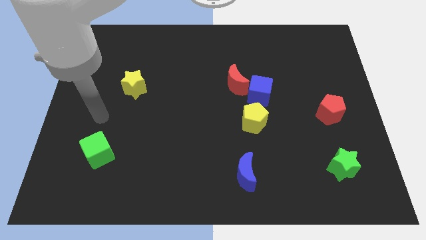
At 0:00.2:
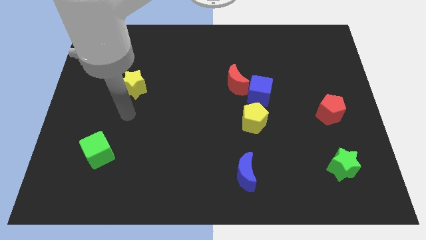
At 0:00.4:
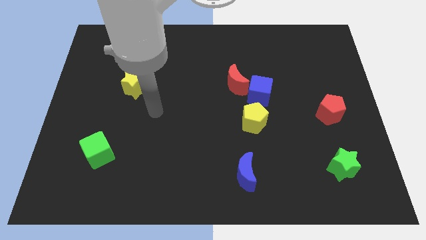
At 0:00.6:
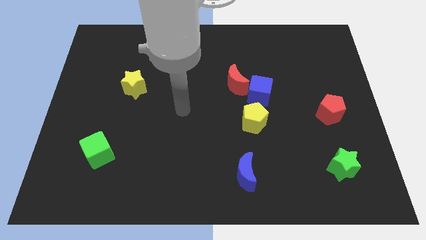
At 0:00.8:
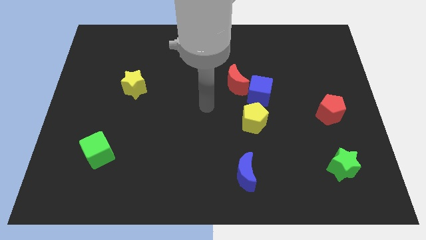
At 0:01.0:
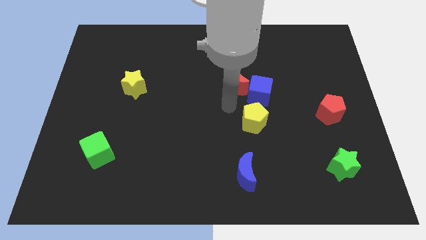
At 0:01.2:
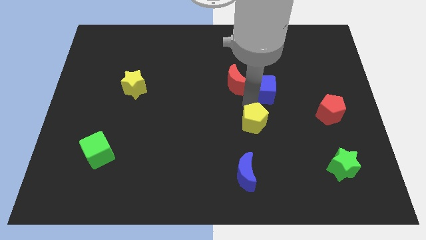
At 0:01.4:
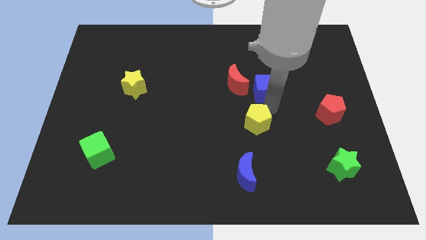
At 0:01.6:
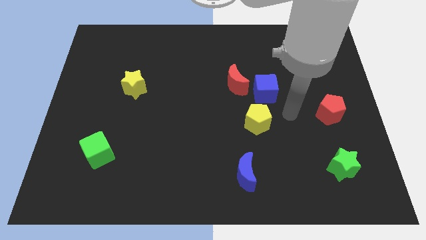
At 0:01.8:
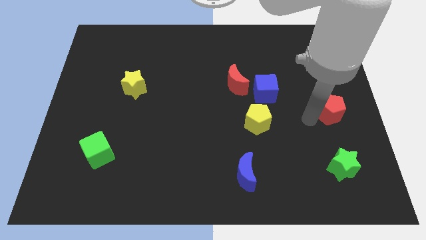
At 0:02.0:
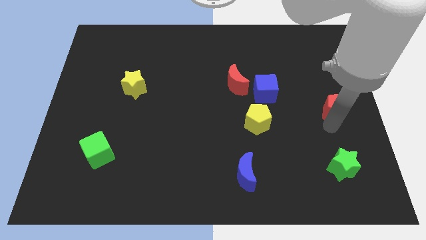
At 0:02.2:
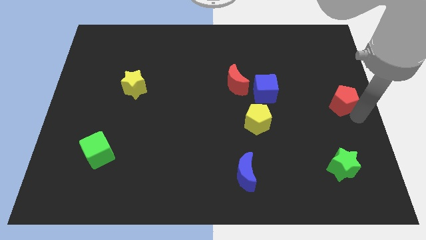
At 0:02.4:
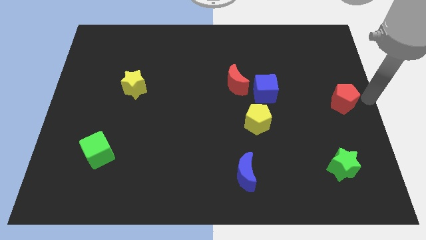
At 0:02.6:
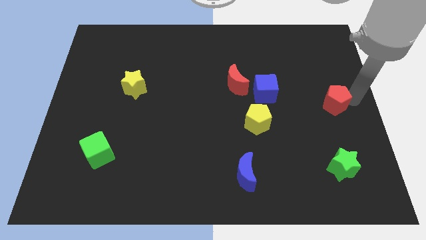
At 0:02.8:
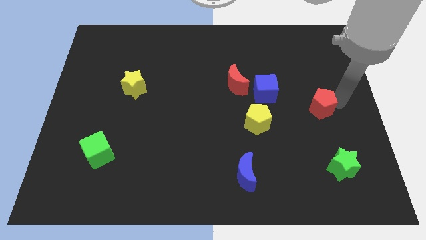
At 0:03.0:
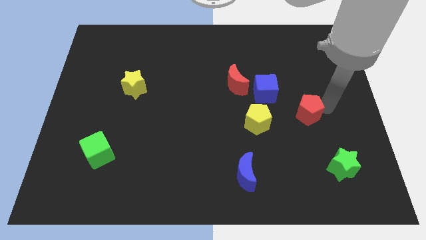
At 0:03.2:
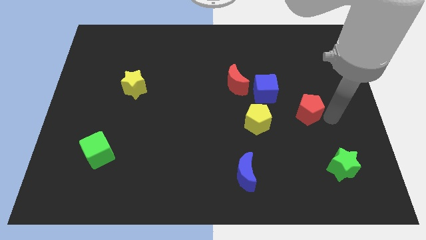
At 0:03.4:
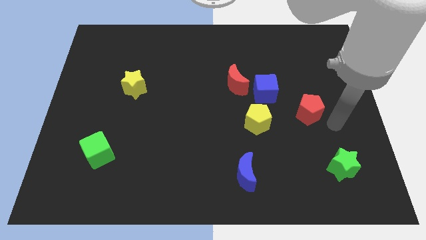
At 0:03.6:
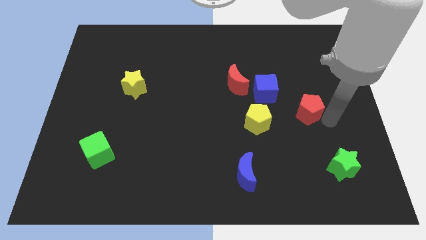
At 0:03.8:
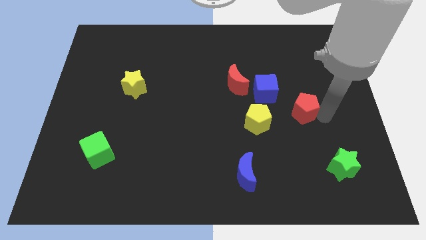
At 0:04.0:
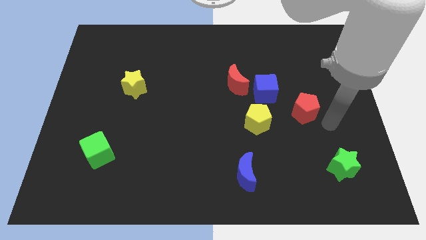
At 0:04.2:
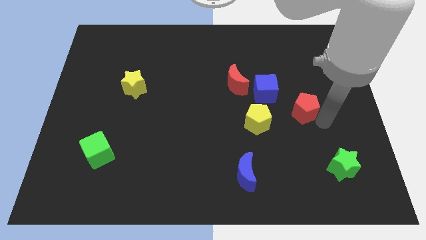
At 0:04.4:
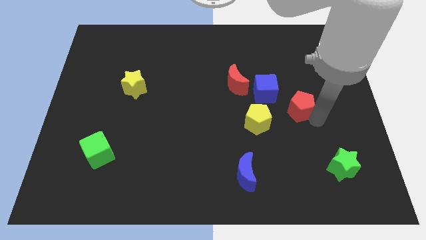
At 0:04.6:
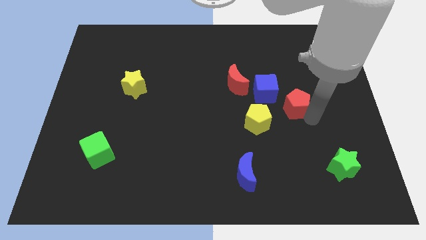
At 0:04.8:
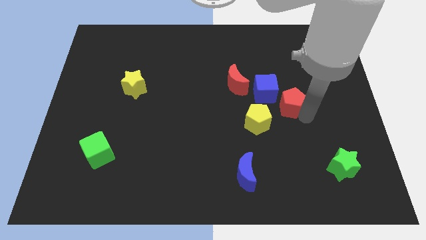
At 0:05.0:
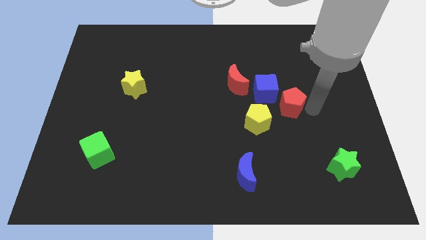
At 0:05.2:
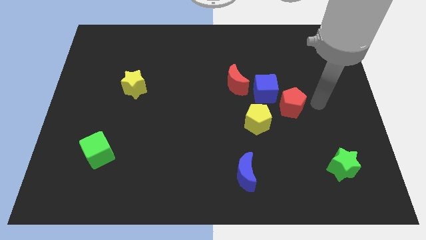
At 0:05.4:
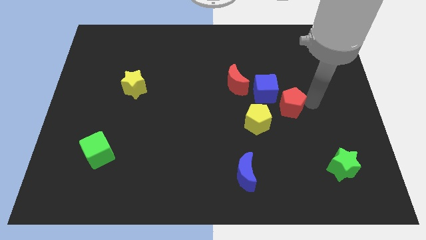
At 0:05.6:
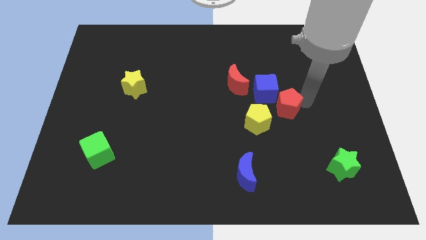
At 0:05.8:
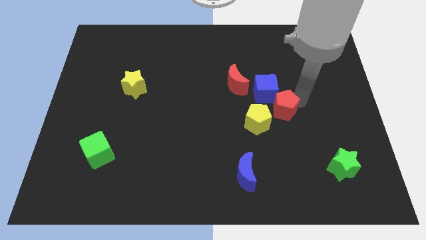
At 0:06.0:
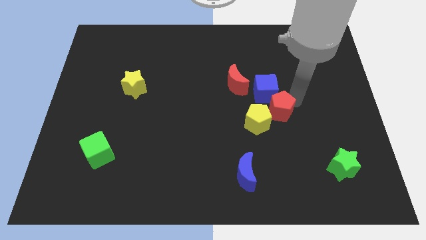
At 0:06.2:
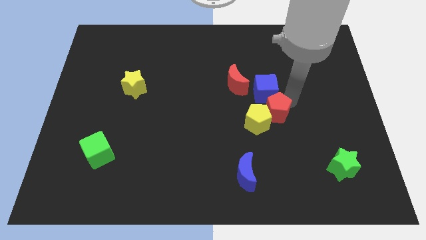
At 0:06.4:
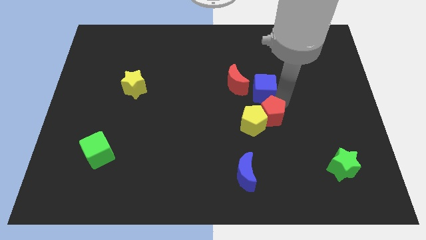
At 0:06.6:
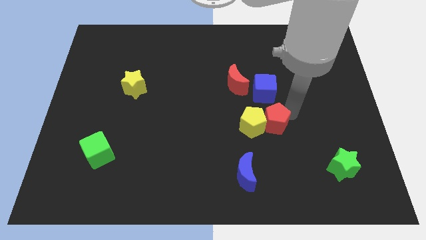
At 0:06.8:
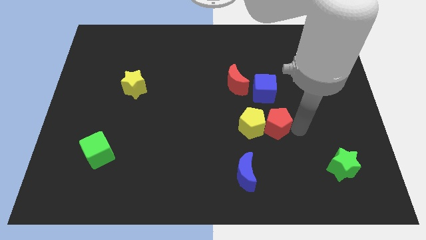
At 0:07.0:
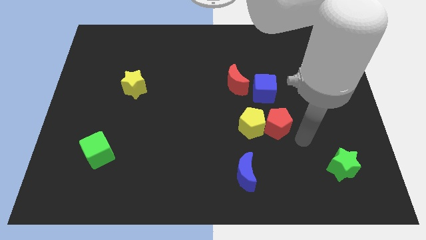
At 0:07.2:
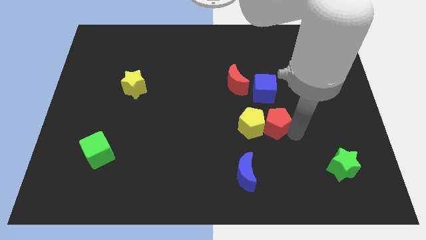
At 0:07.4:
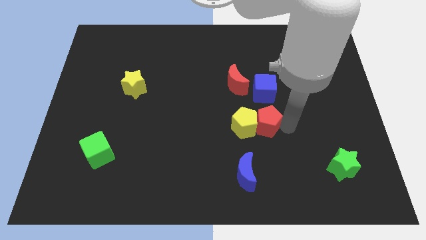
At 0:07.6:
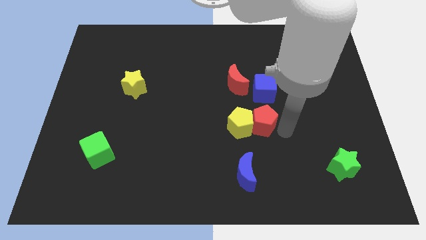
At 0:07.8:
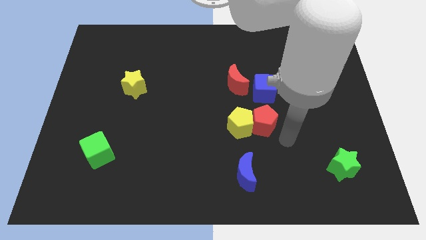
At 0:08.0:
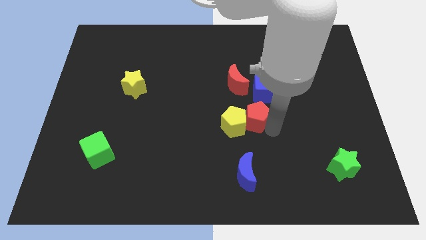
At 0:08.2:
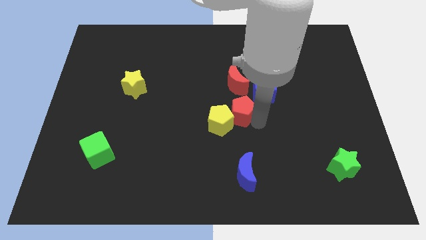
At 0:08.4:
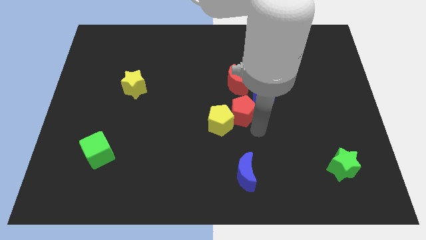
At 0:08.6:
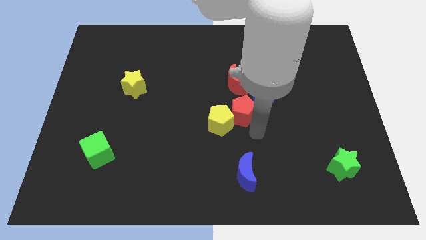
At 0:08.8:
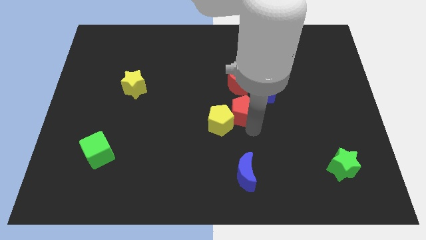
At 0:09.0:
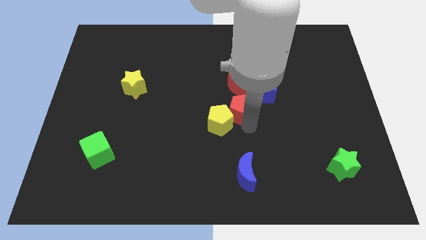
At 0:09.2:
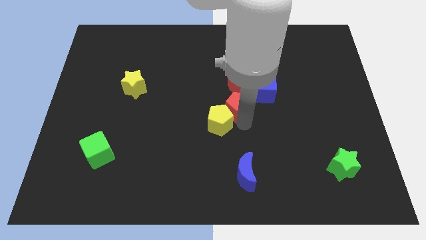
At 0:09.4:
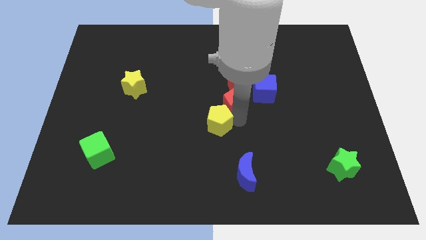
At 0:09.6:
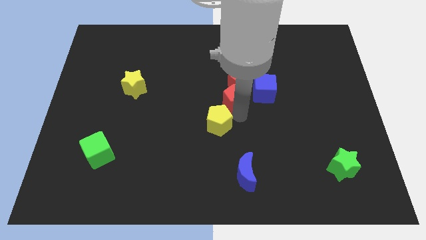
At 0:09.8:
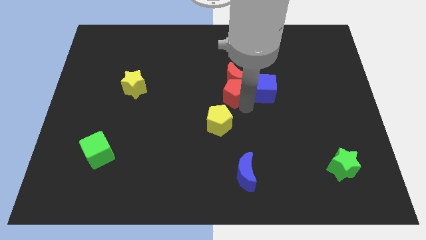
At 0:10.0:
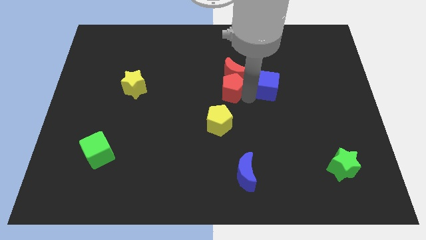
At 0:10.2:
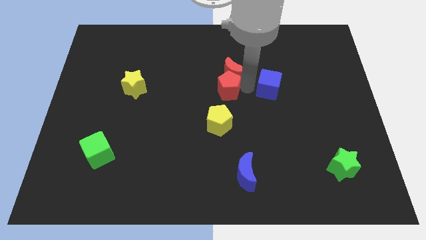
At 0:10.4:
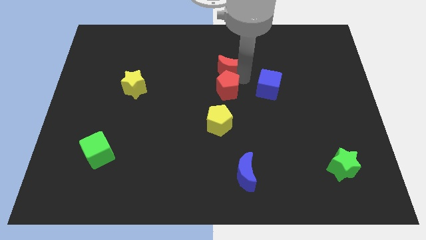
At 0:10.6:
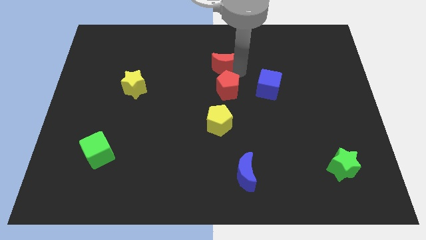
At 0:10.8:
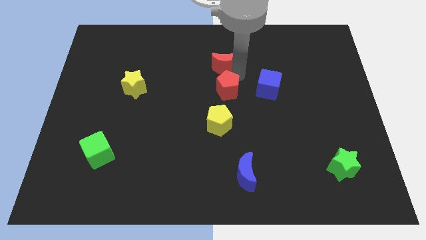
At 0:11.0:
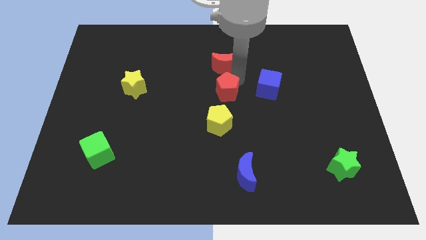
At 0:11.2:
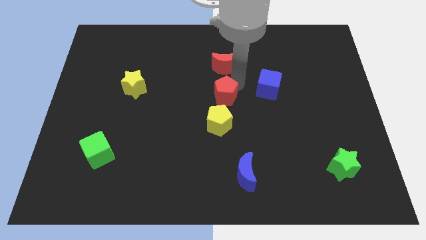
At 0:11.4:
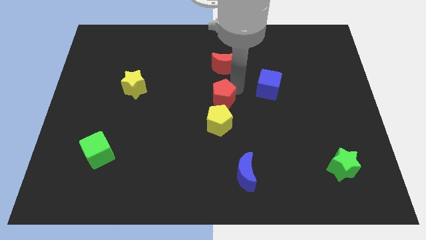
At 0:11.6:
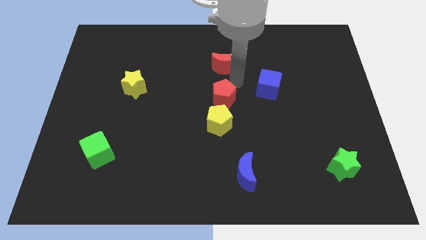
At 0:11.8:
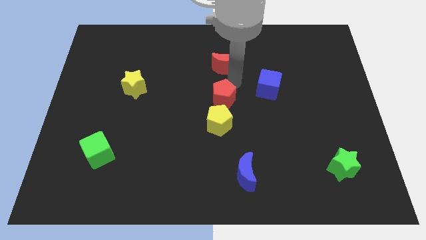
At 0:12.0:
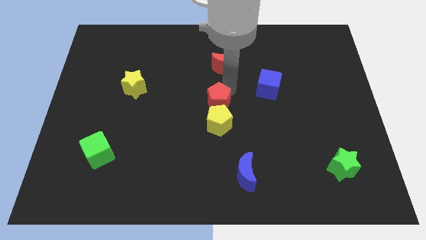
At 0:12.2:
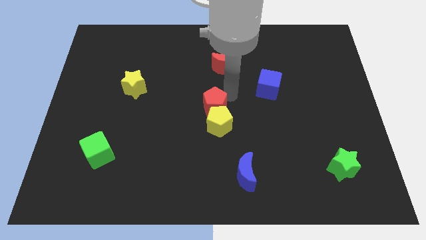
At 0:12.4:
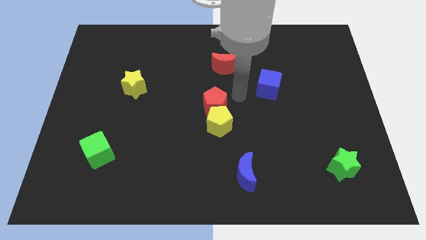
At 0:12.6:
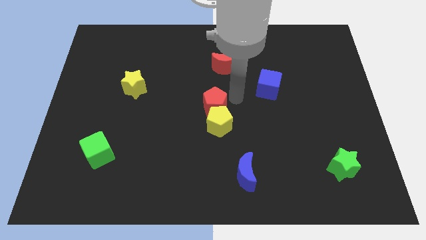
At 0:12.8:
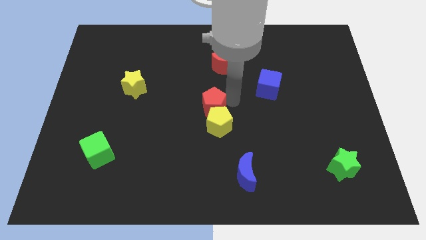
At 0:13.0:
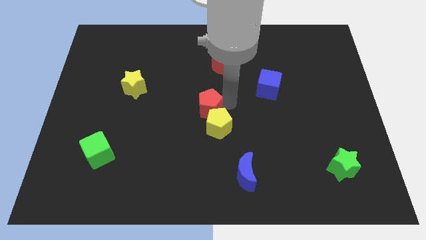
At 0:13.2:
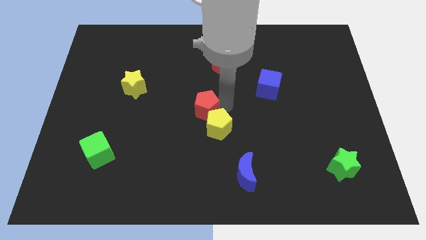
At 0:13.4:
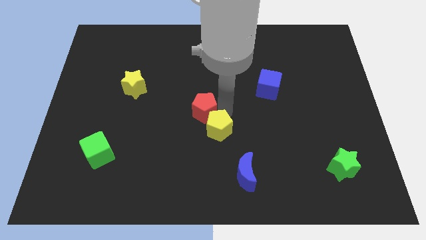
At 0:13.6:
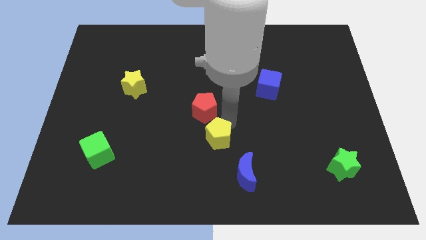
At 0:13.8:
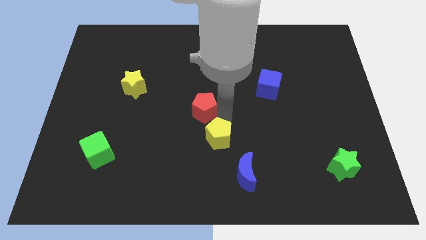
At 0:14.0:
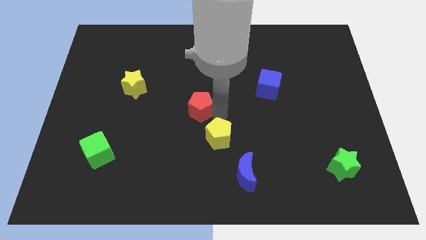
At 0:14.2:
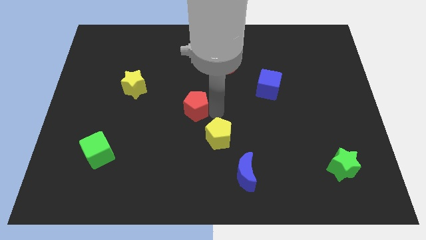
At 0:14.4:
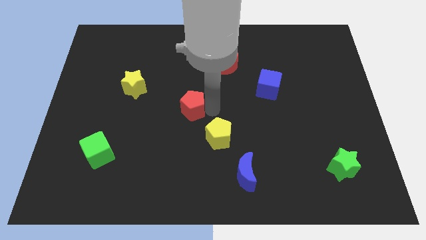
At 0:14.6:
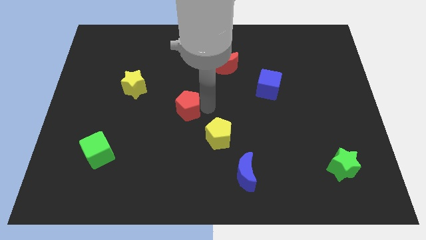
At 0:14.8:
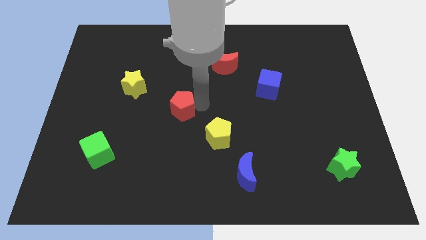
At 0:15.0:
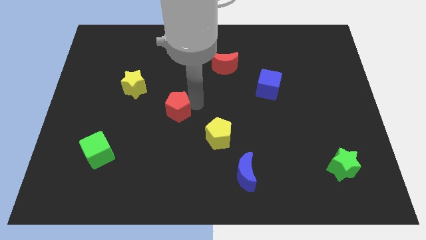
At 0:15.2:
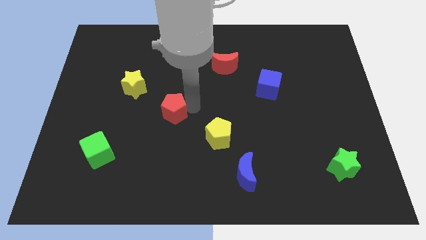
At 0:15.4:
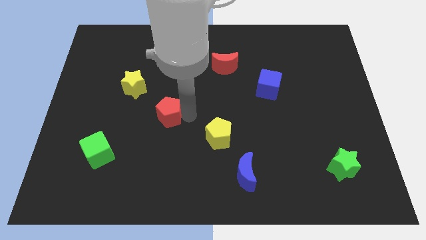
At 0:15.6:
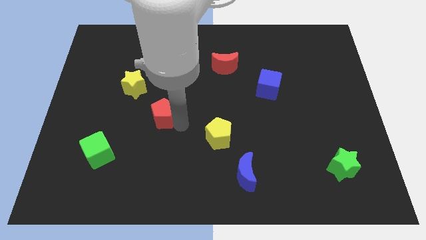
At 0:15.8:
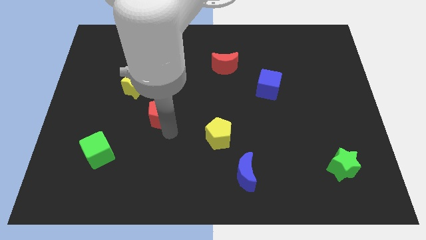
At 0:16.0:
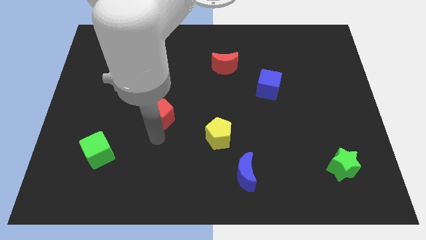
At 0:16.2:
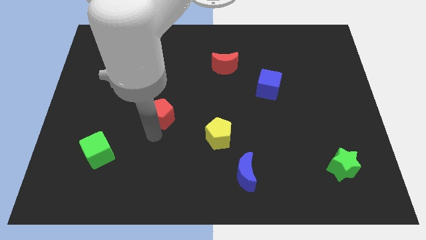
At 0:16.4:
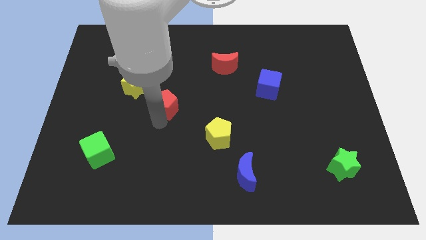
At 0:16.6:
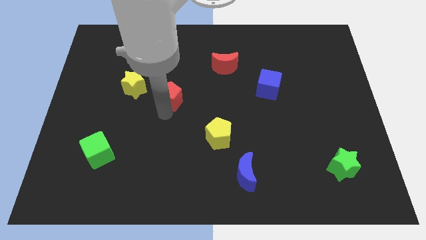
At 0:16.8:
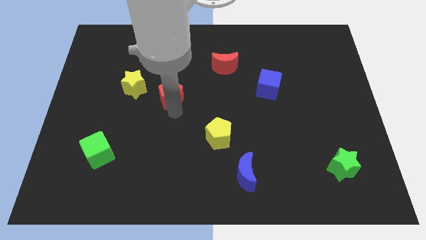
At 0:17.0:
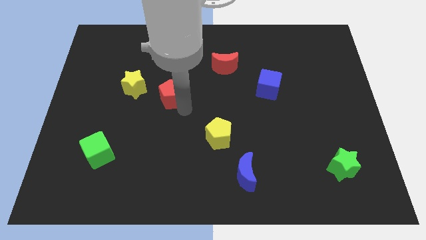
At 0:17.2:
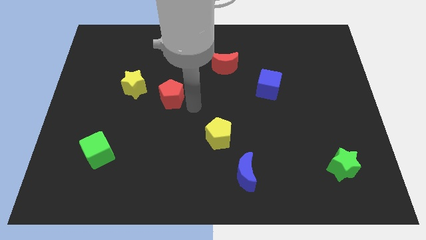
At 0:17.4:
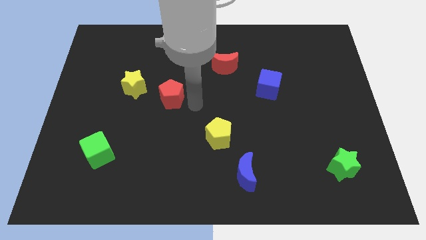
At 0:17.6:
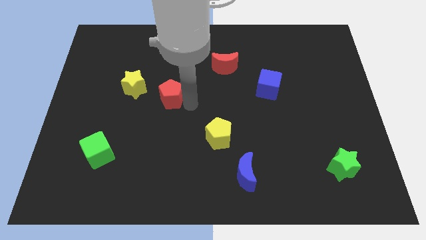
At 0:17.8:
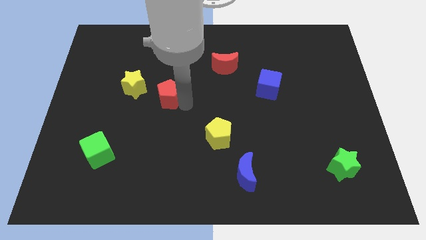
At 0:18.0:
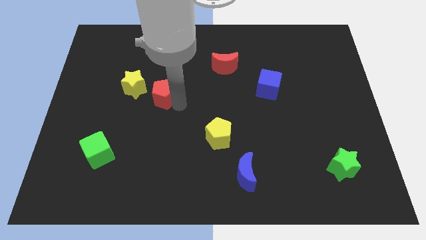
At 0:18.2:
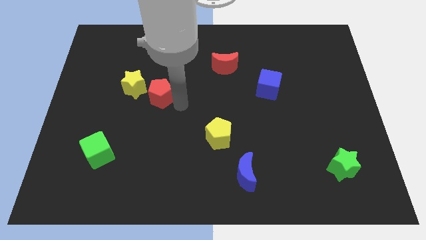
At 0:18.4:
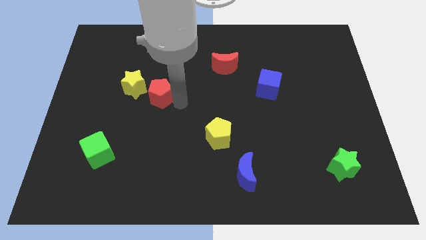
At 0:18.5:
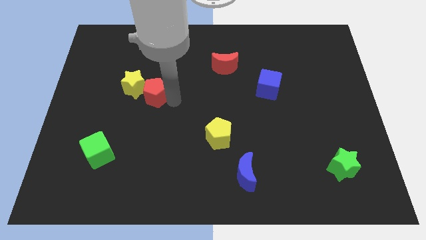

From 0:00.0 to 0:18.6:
put the red pentagon to the yellow star
